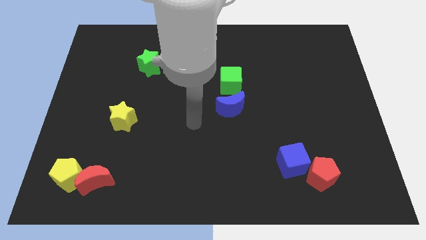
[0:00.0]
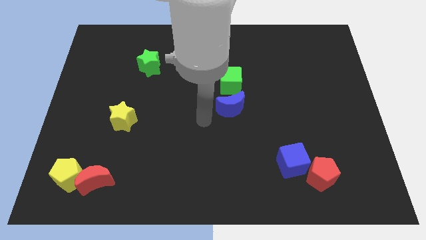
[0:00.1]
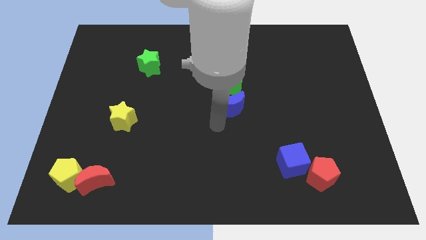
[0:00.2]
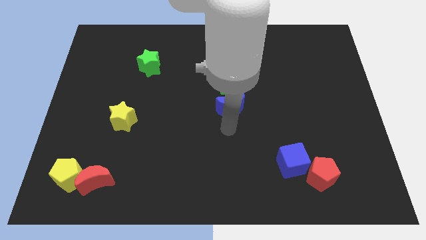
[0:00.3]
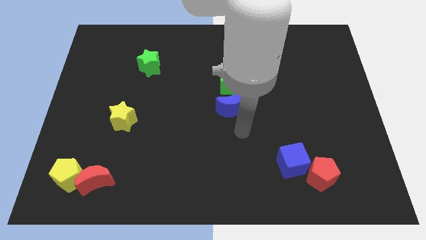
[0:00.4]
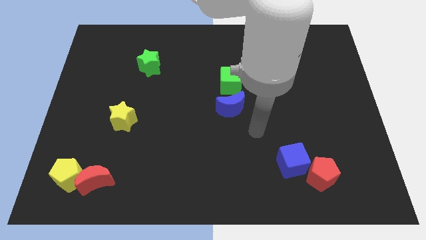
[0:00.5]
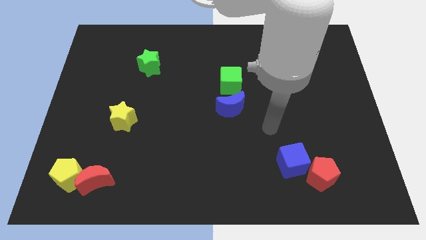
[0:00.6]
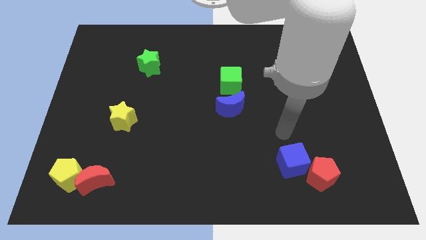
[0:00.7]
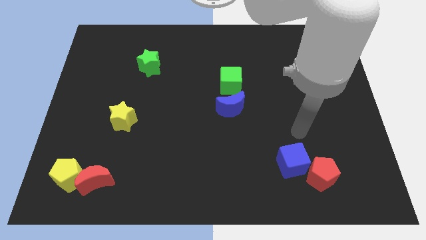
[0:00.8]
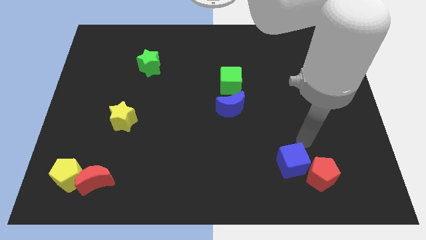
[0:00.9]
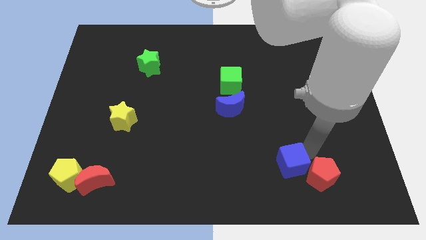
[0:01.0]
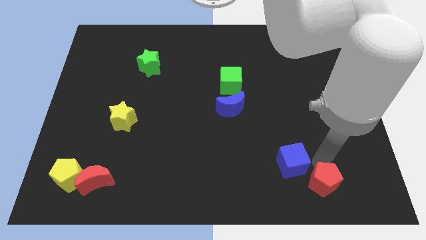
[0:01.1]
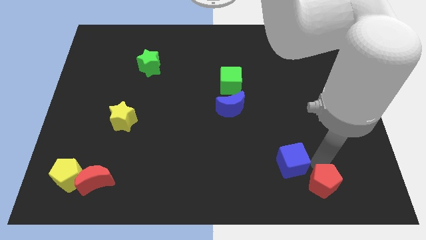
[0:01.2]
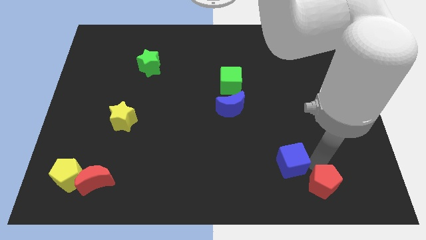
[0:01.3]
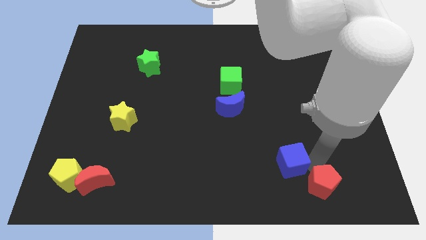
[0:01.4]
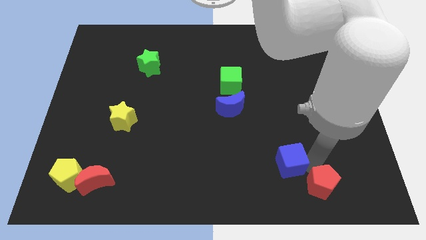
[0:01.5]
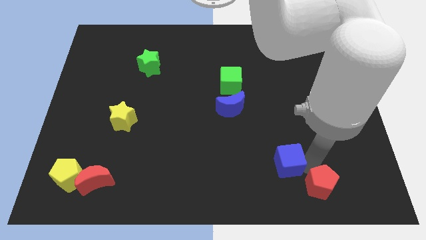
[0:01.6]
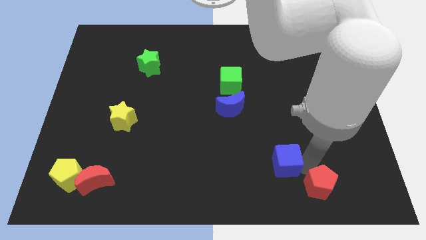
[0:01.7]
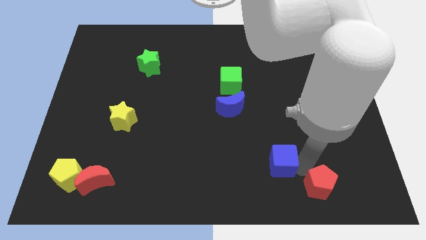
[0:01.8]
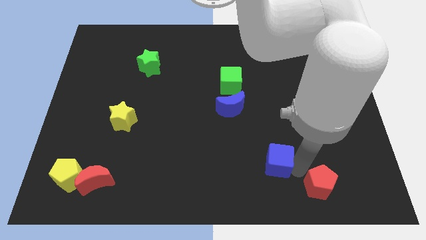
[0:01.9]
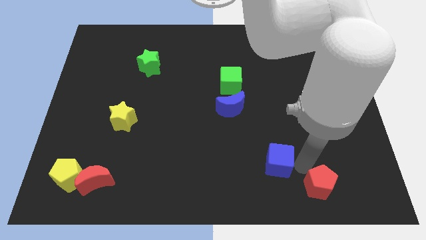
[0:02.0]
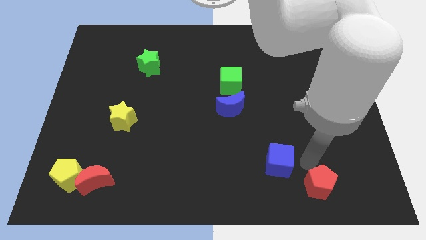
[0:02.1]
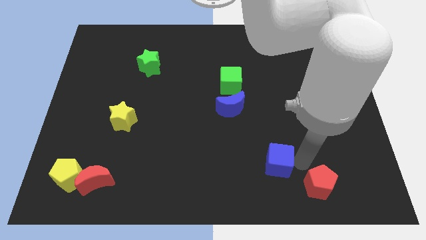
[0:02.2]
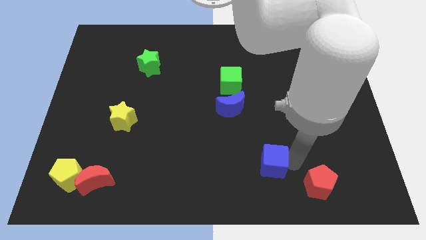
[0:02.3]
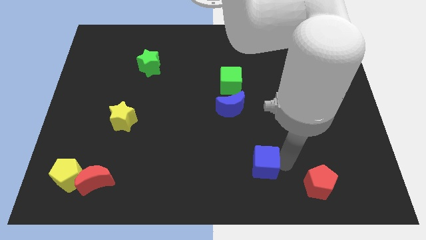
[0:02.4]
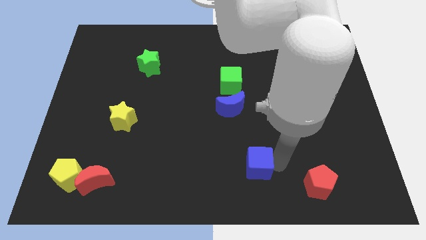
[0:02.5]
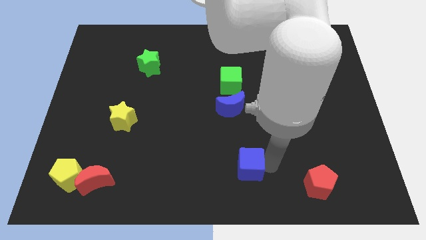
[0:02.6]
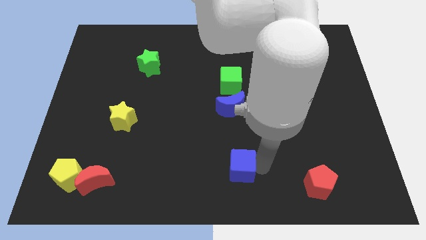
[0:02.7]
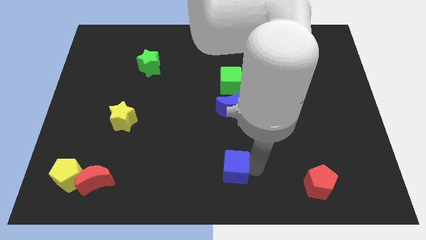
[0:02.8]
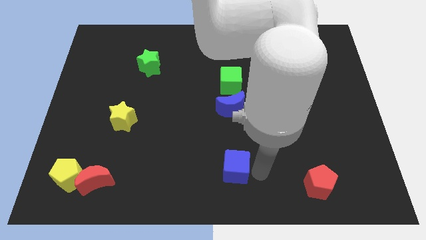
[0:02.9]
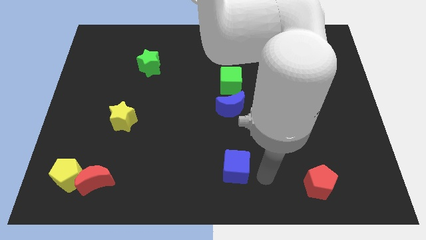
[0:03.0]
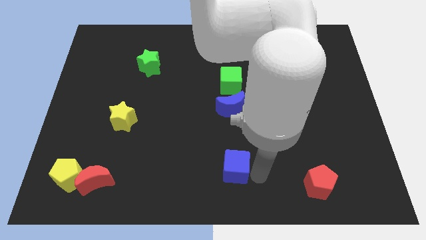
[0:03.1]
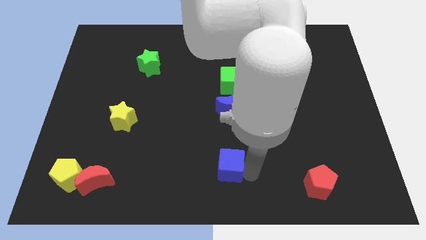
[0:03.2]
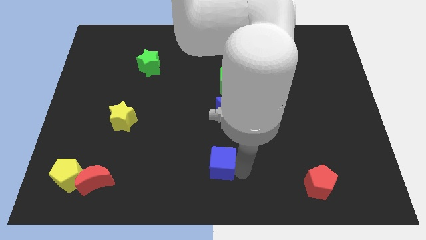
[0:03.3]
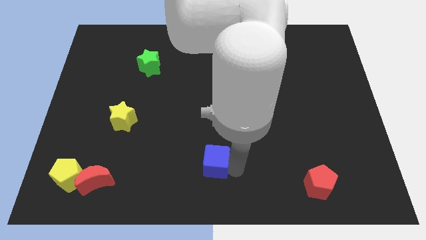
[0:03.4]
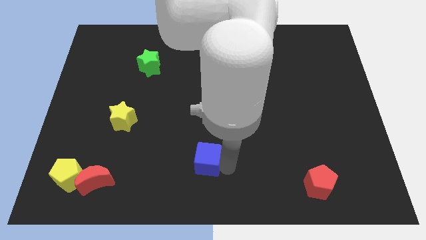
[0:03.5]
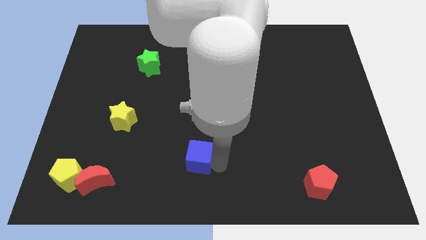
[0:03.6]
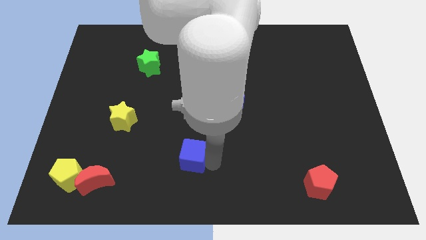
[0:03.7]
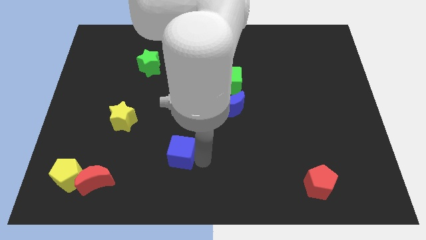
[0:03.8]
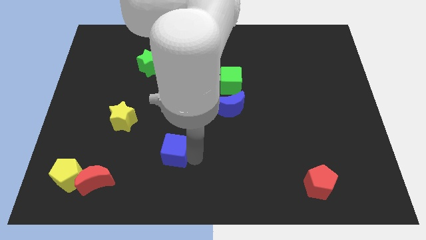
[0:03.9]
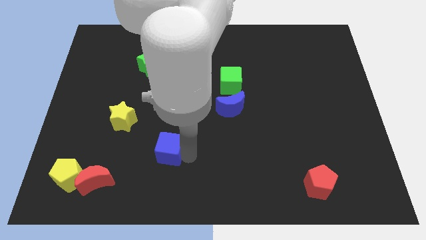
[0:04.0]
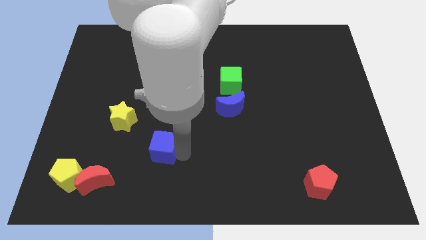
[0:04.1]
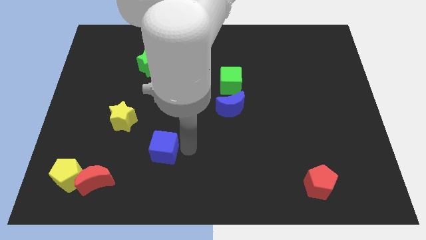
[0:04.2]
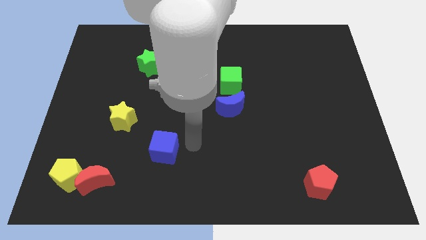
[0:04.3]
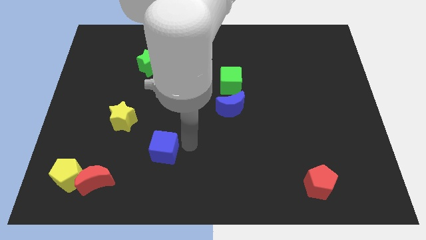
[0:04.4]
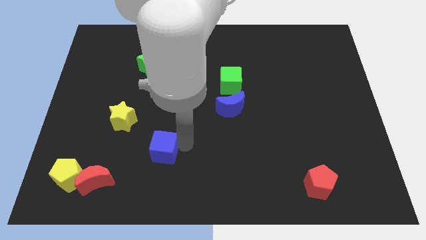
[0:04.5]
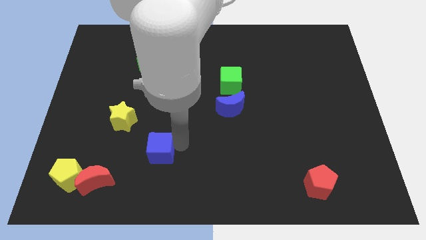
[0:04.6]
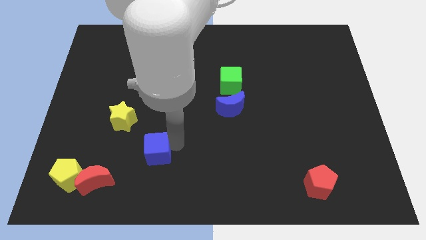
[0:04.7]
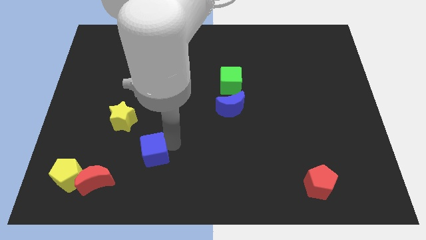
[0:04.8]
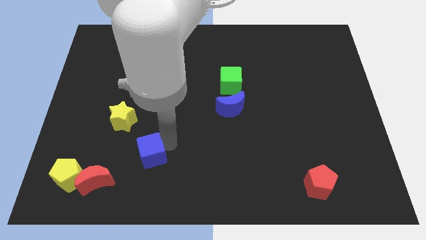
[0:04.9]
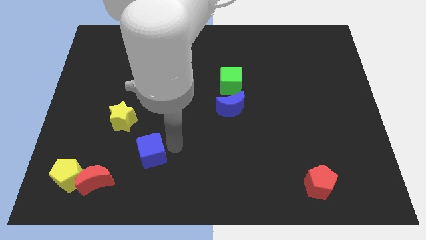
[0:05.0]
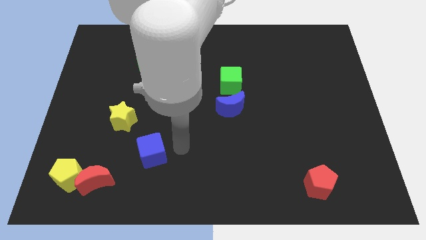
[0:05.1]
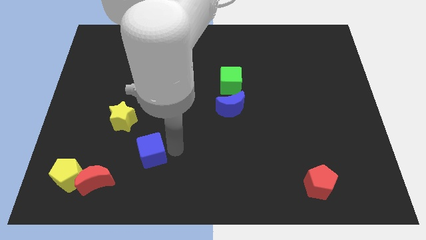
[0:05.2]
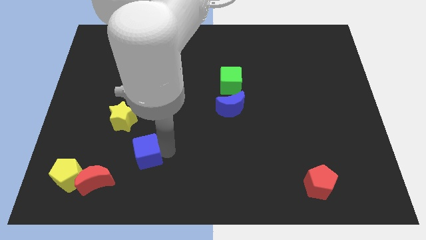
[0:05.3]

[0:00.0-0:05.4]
push the blue cube diagonally up and to the right of the red moon

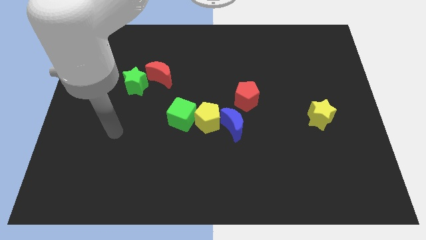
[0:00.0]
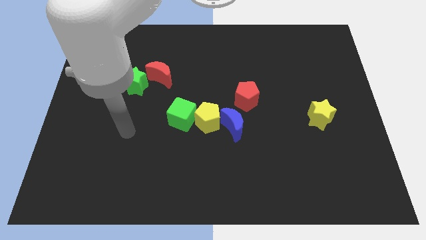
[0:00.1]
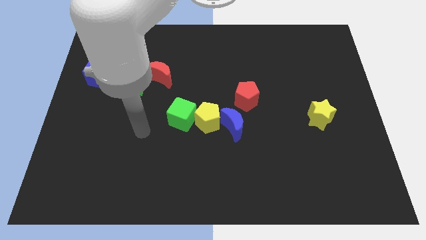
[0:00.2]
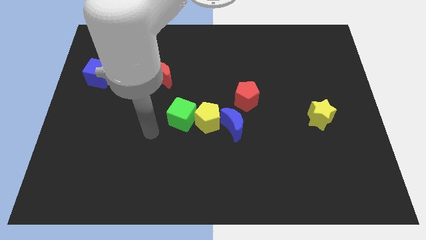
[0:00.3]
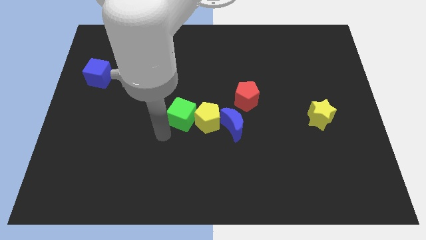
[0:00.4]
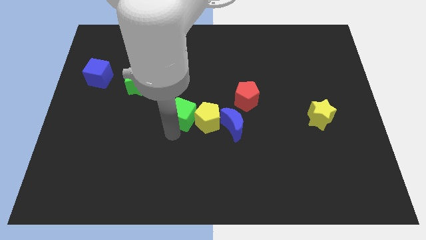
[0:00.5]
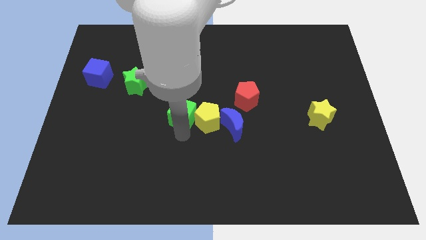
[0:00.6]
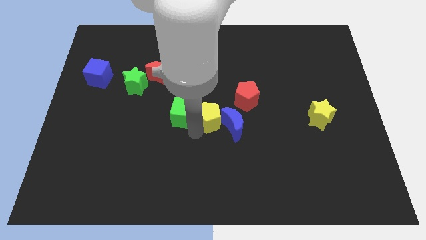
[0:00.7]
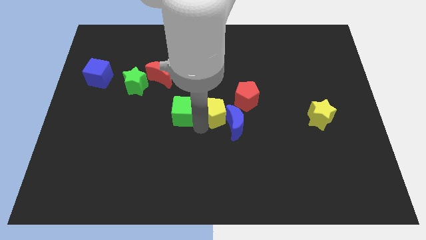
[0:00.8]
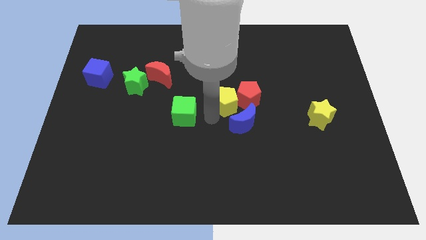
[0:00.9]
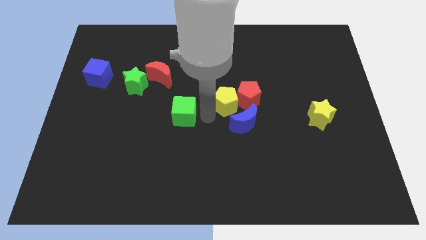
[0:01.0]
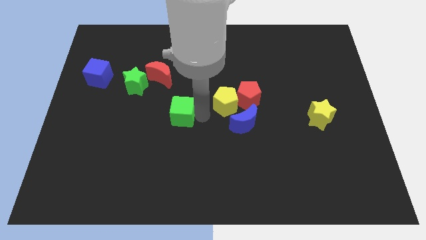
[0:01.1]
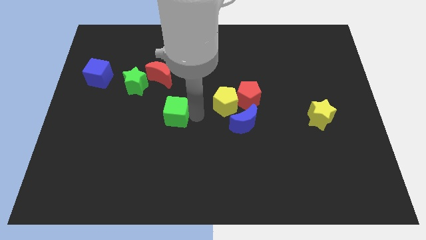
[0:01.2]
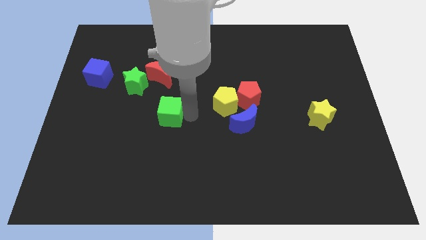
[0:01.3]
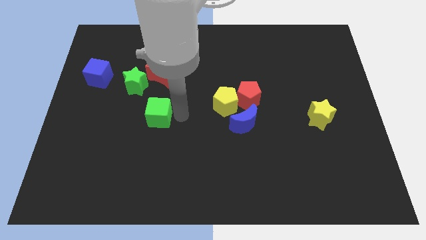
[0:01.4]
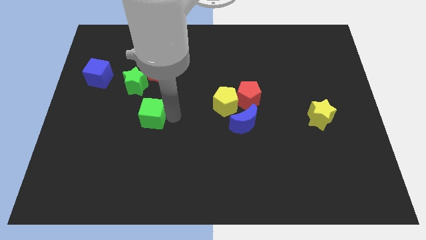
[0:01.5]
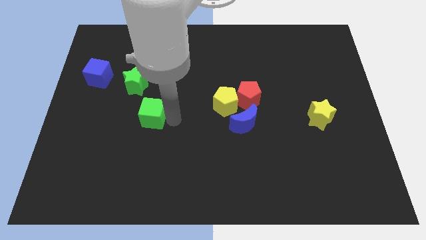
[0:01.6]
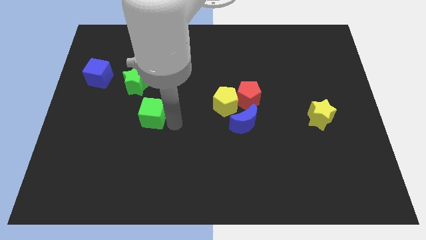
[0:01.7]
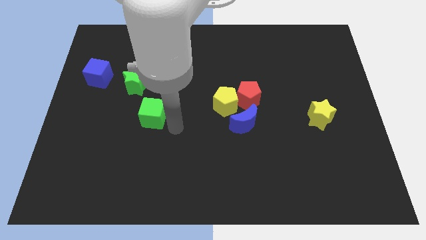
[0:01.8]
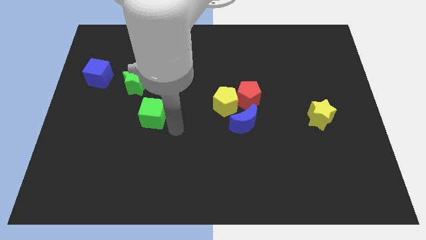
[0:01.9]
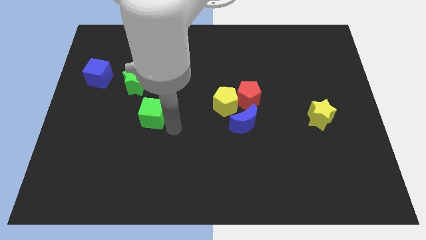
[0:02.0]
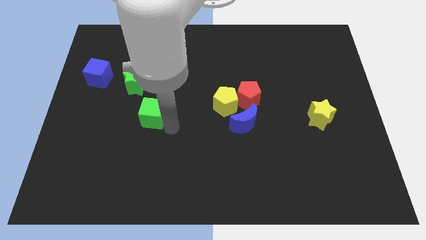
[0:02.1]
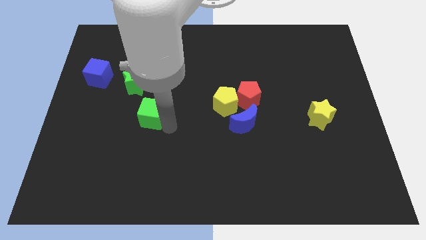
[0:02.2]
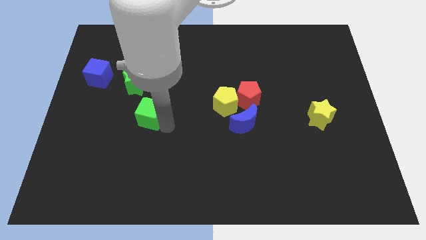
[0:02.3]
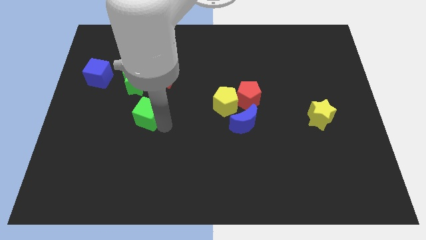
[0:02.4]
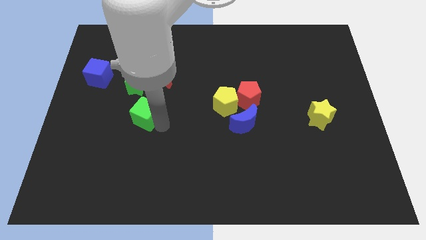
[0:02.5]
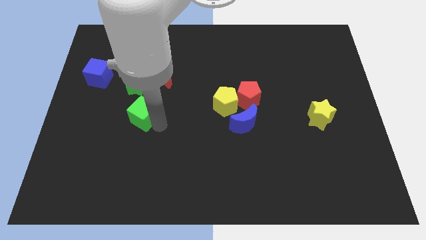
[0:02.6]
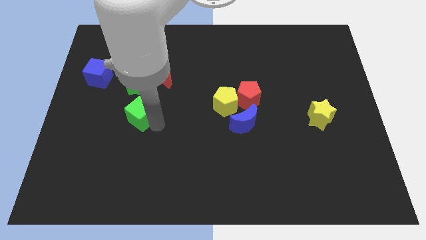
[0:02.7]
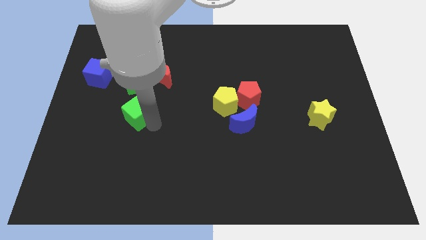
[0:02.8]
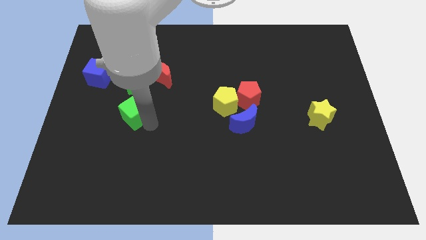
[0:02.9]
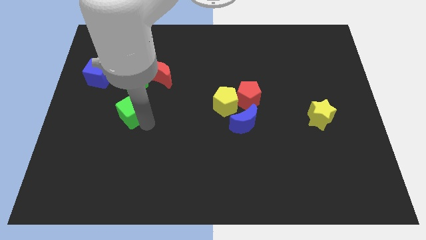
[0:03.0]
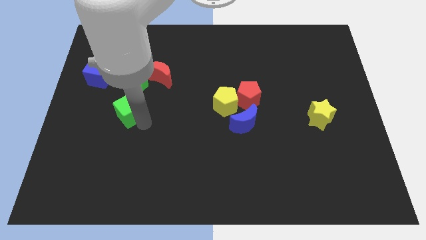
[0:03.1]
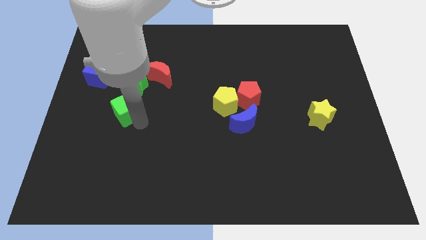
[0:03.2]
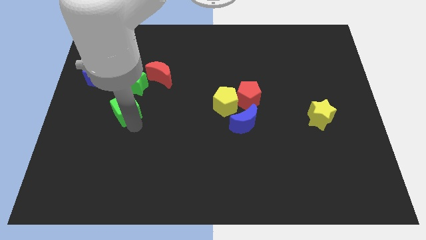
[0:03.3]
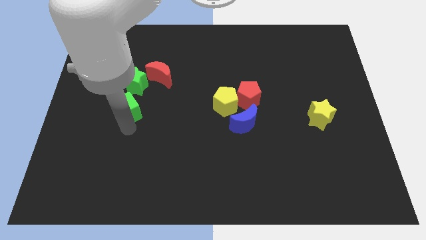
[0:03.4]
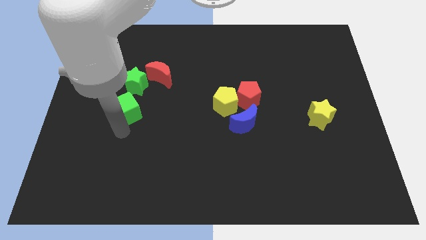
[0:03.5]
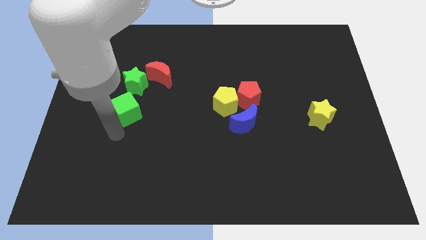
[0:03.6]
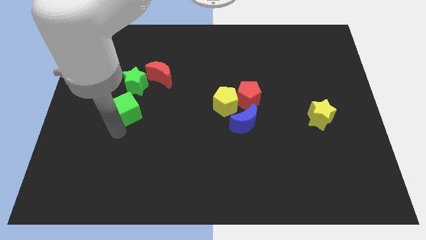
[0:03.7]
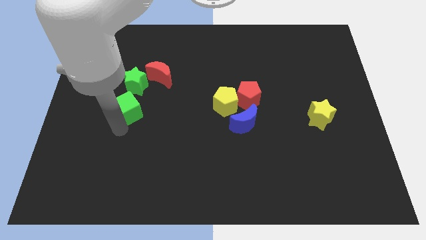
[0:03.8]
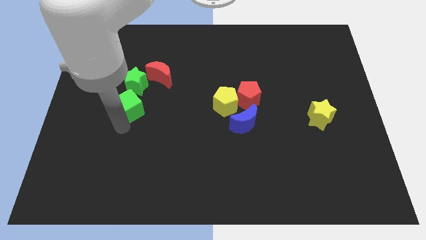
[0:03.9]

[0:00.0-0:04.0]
slide the green cube diagonally down and to the left of the red moon
